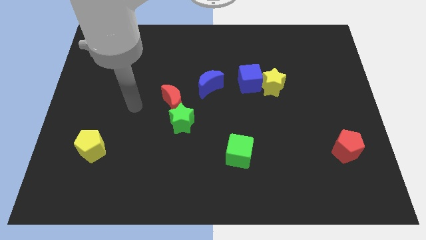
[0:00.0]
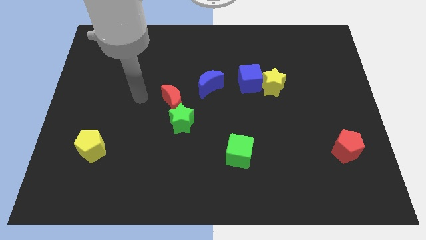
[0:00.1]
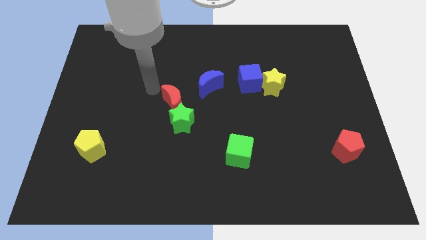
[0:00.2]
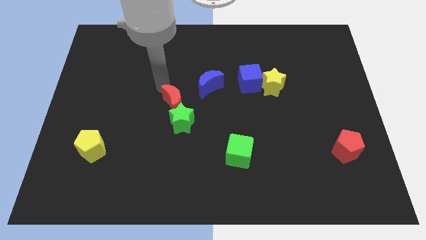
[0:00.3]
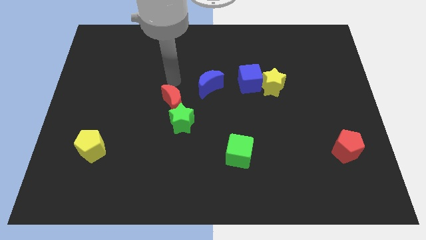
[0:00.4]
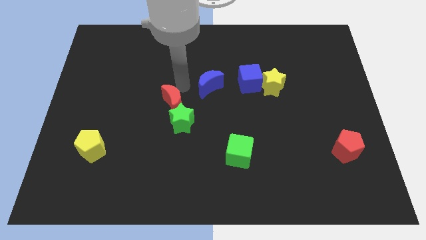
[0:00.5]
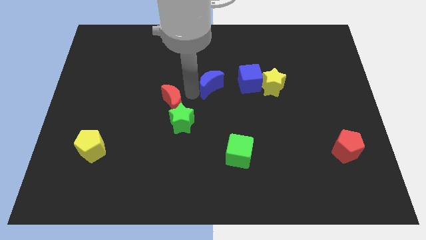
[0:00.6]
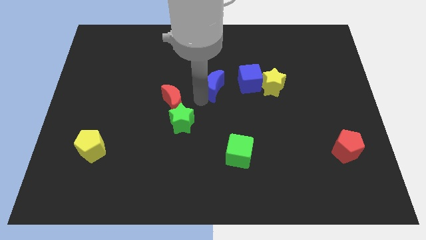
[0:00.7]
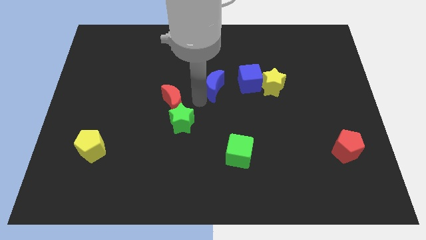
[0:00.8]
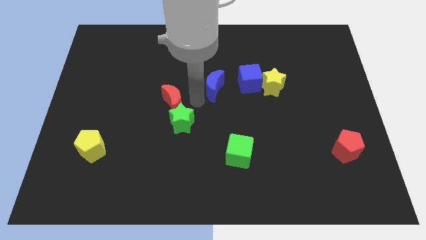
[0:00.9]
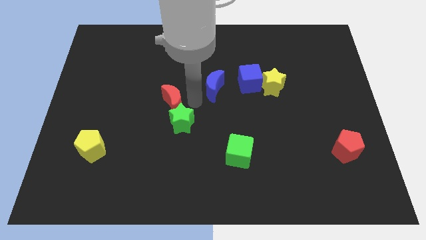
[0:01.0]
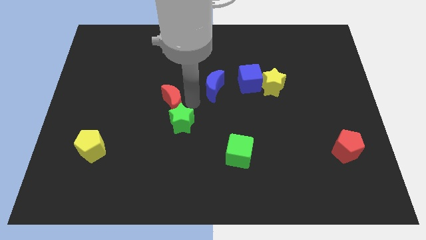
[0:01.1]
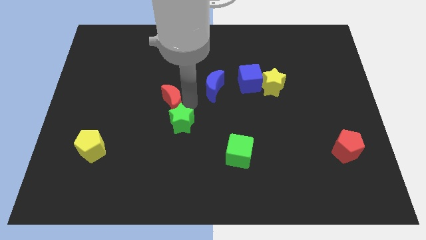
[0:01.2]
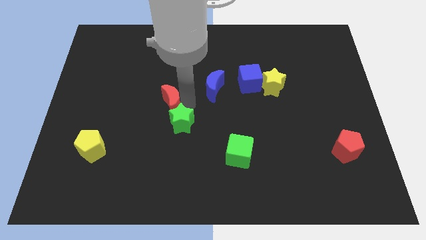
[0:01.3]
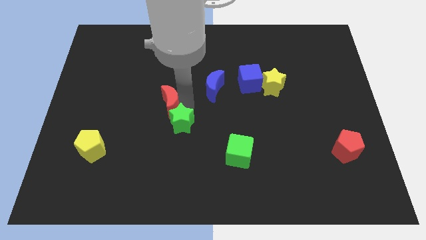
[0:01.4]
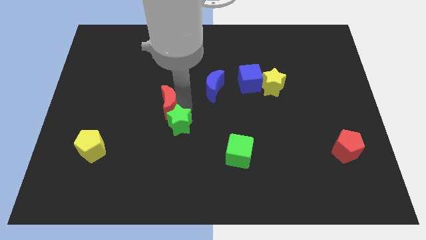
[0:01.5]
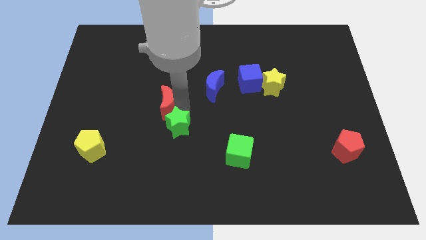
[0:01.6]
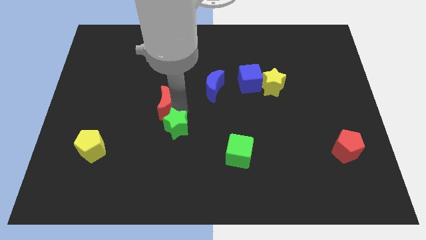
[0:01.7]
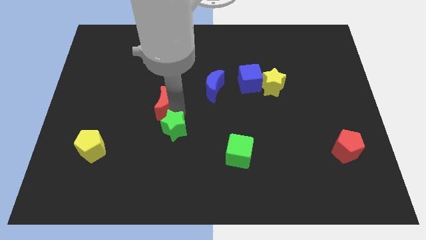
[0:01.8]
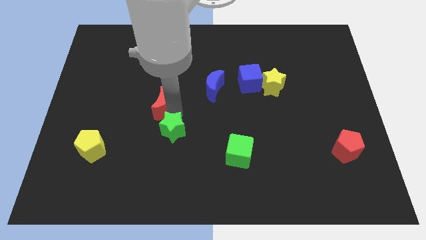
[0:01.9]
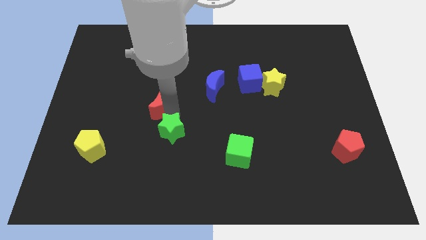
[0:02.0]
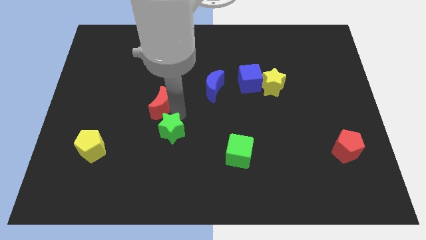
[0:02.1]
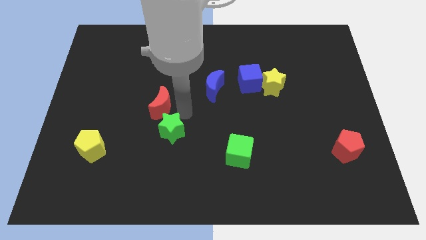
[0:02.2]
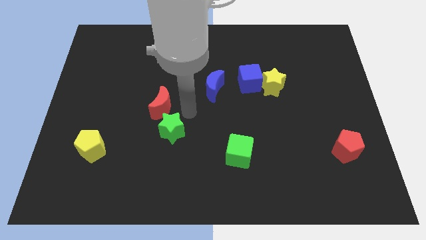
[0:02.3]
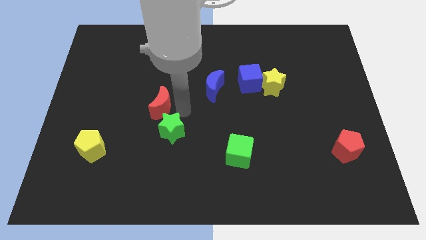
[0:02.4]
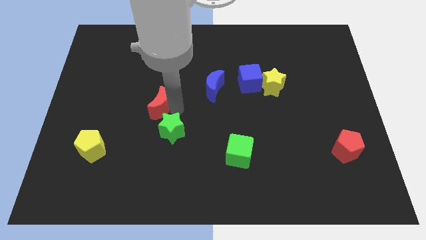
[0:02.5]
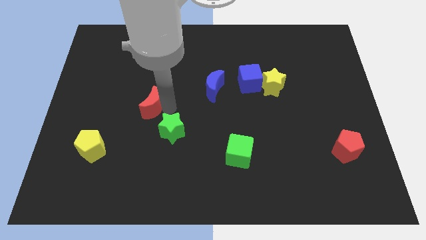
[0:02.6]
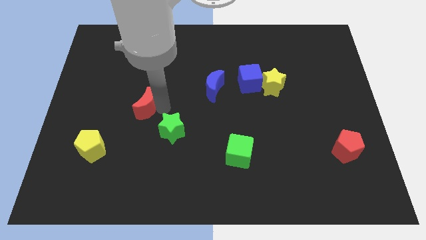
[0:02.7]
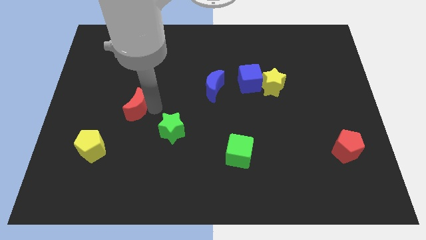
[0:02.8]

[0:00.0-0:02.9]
slightly move the red moon left

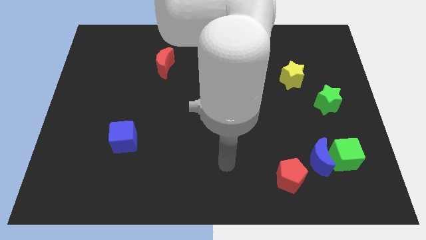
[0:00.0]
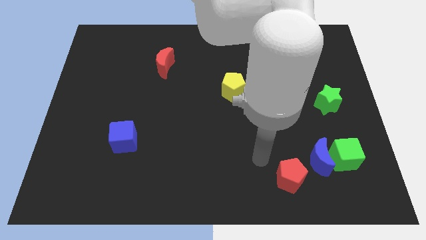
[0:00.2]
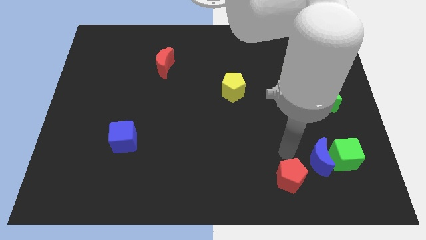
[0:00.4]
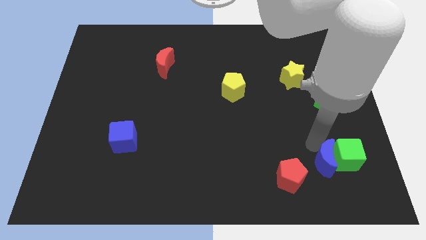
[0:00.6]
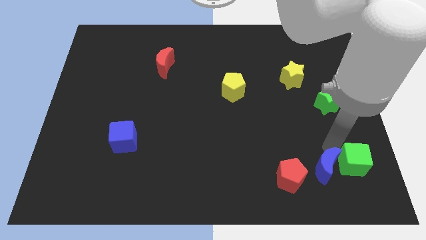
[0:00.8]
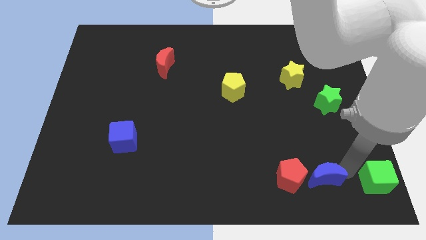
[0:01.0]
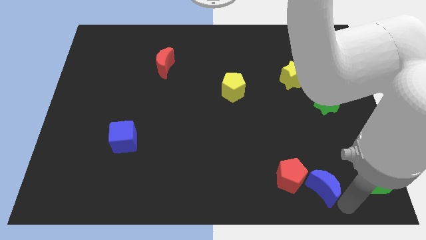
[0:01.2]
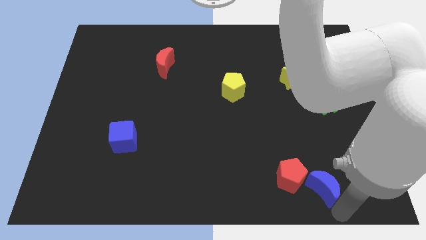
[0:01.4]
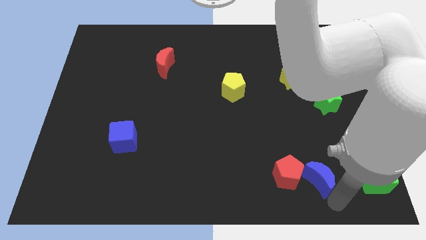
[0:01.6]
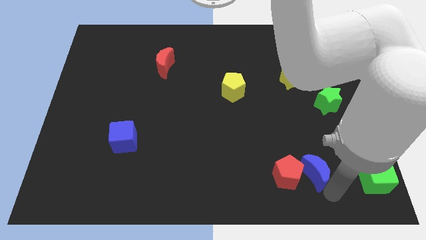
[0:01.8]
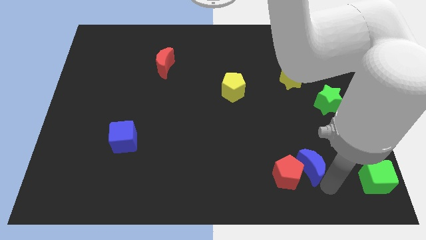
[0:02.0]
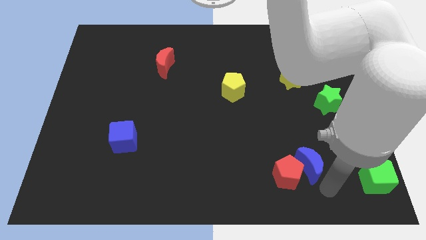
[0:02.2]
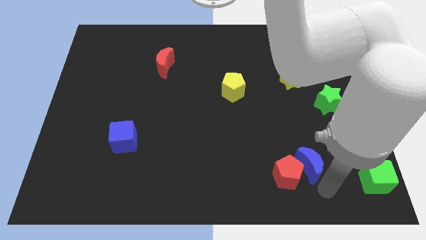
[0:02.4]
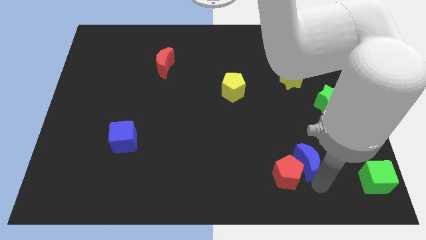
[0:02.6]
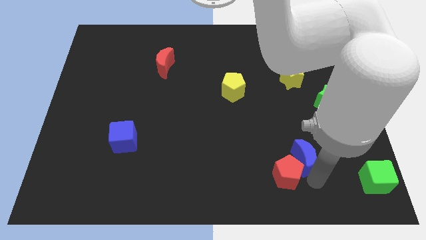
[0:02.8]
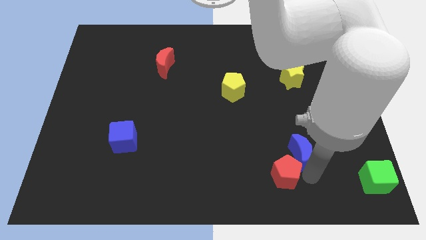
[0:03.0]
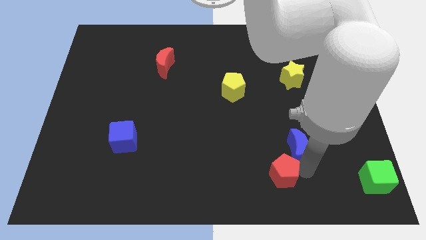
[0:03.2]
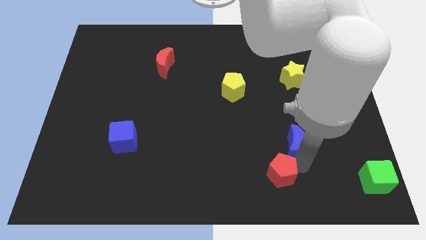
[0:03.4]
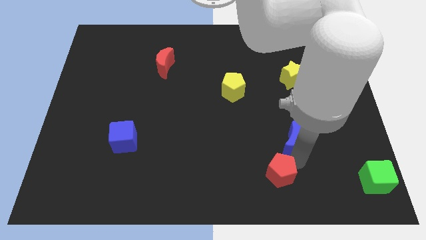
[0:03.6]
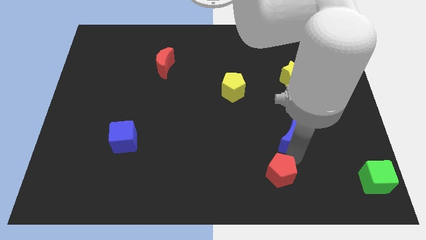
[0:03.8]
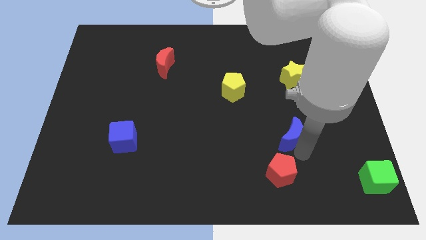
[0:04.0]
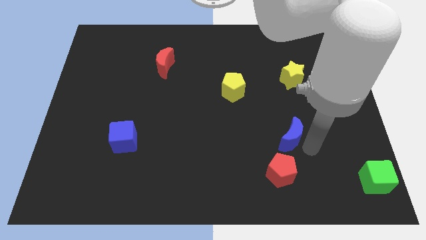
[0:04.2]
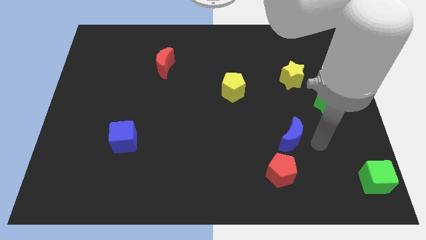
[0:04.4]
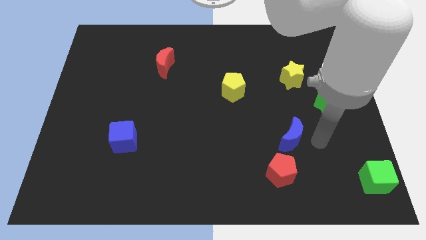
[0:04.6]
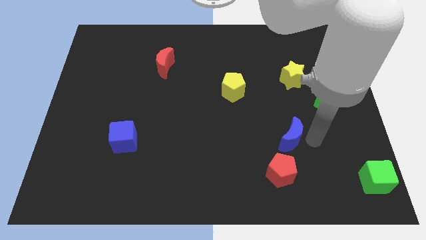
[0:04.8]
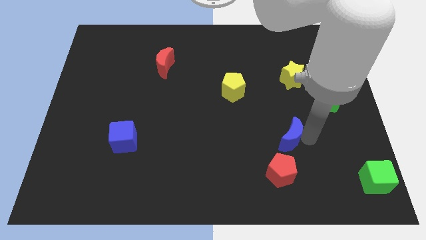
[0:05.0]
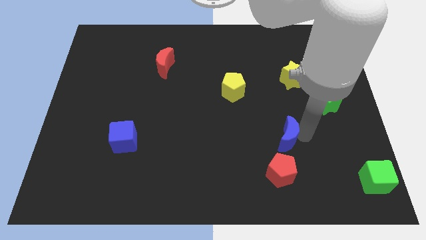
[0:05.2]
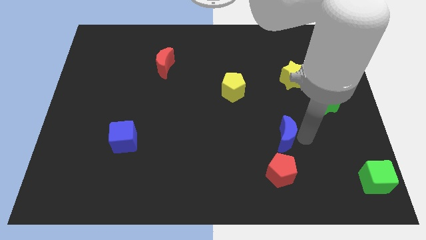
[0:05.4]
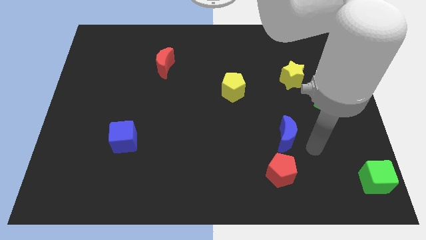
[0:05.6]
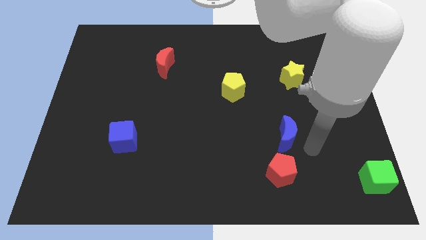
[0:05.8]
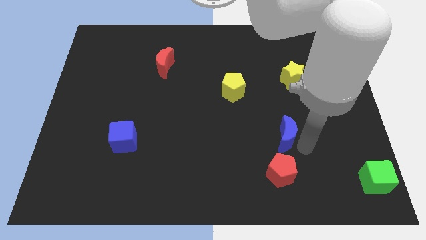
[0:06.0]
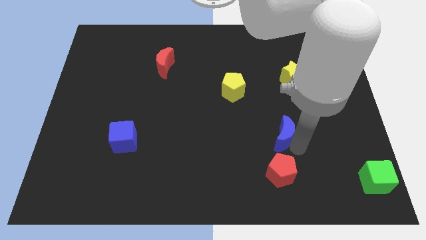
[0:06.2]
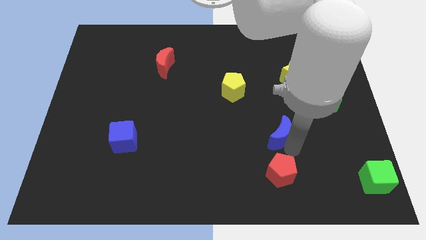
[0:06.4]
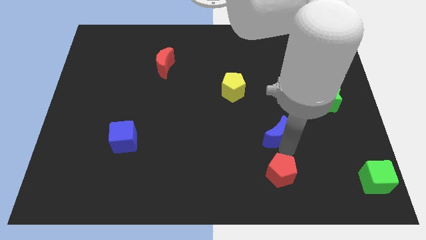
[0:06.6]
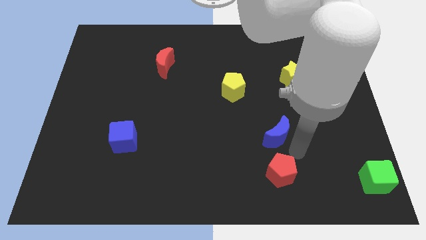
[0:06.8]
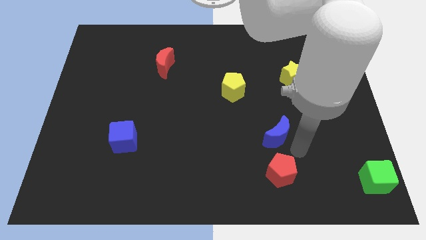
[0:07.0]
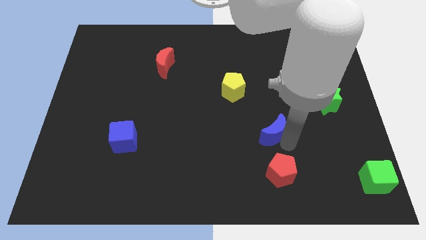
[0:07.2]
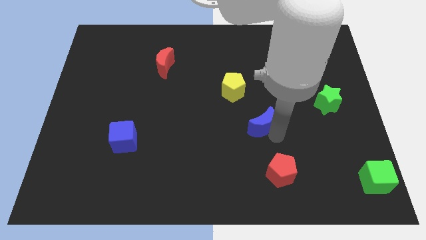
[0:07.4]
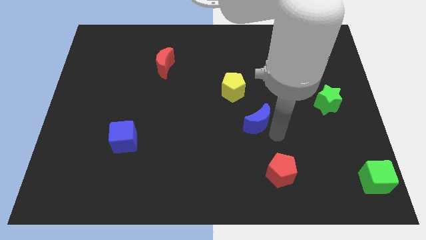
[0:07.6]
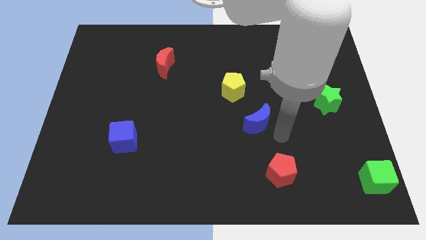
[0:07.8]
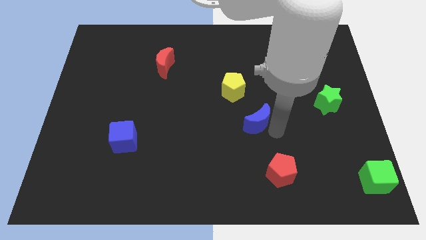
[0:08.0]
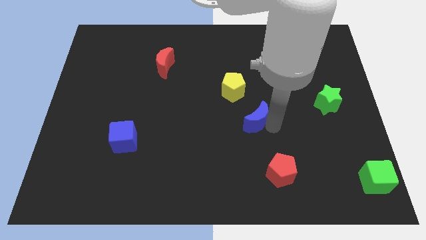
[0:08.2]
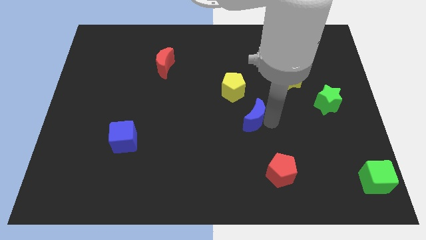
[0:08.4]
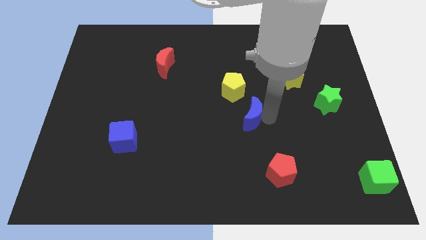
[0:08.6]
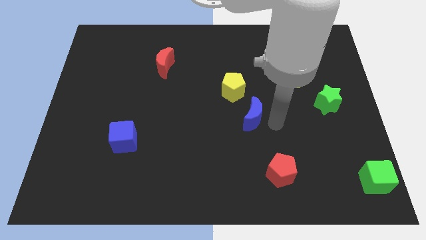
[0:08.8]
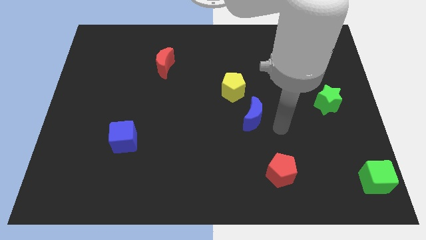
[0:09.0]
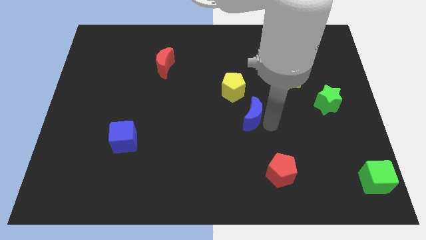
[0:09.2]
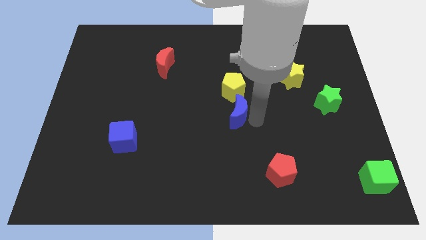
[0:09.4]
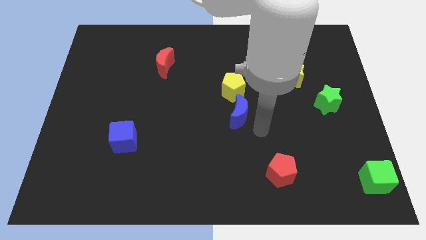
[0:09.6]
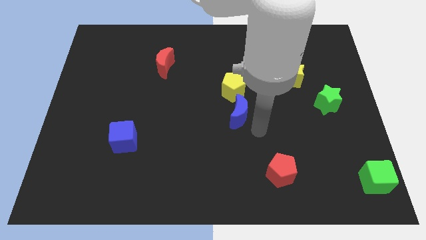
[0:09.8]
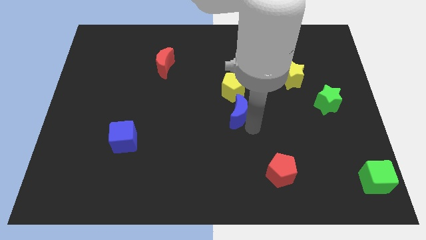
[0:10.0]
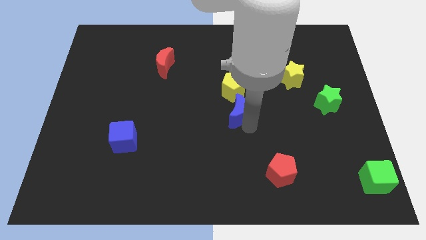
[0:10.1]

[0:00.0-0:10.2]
slide the blue moon upwards and to the left diagonally
